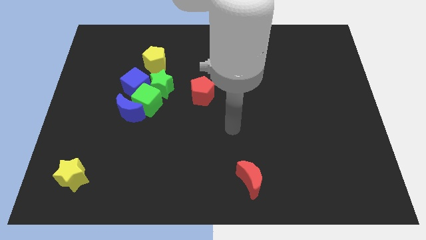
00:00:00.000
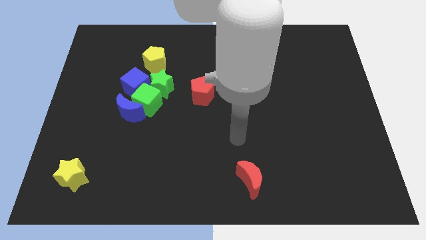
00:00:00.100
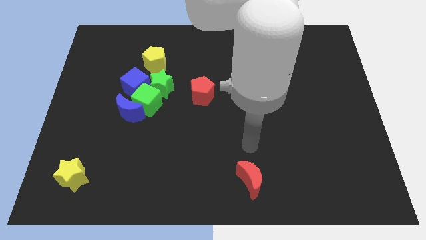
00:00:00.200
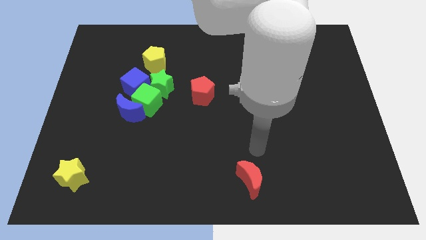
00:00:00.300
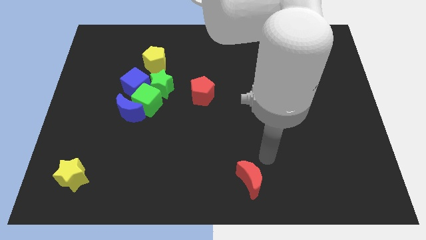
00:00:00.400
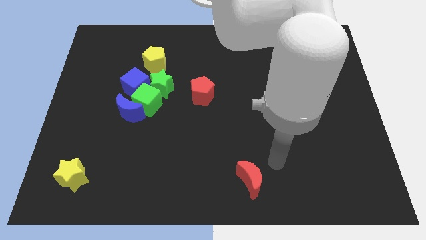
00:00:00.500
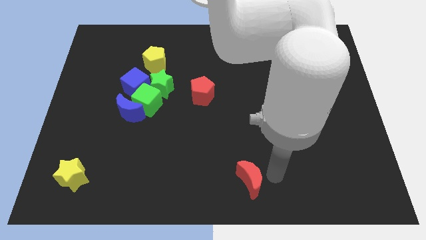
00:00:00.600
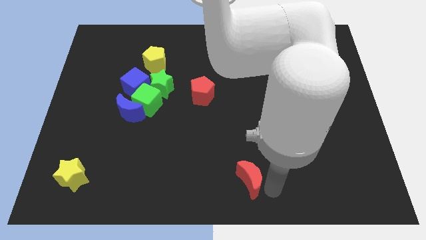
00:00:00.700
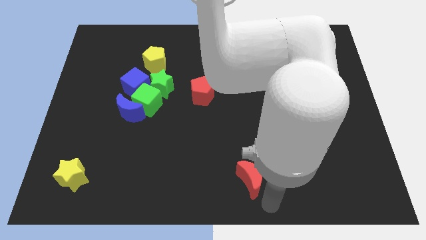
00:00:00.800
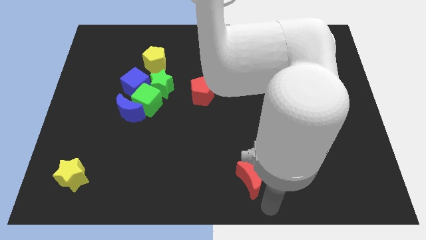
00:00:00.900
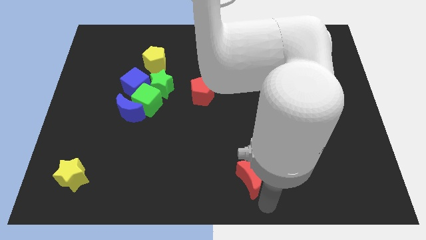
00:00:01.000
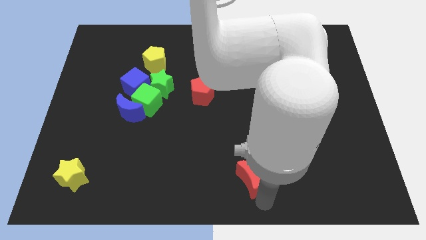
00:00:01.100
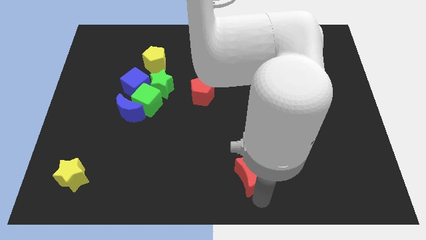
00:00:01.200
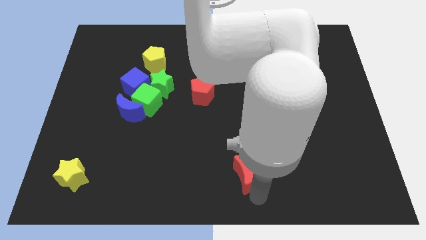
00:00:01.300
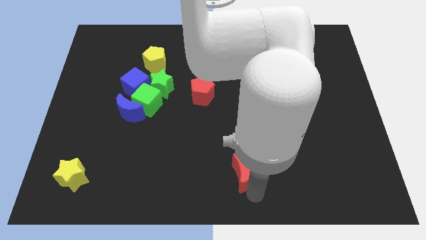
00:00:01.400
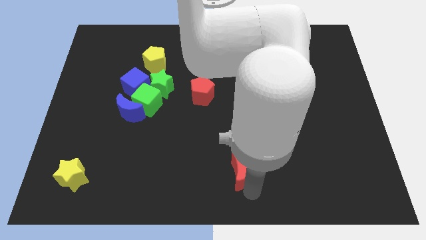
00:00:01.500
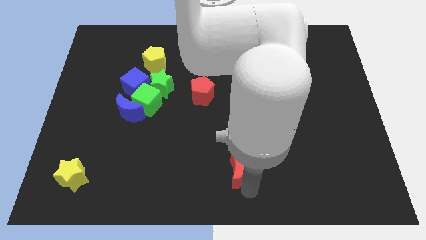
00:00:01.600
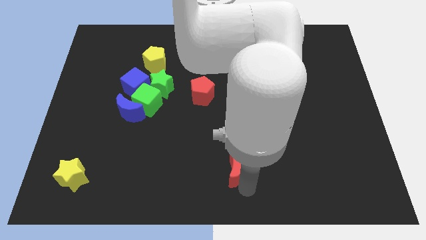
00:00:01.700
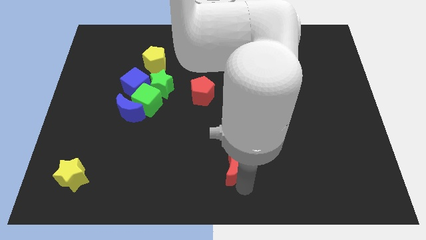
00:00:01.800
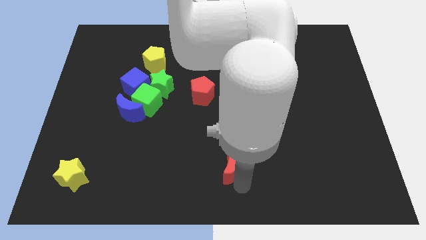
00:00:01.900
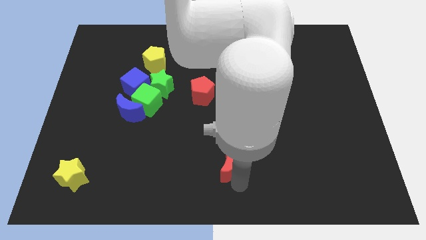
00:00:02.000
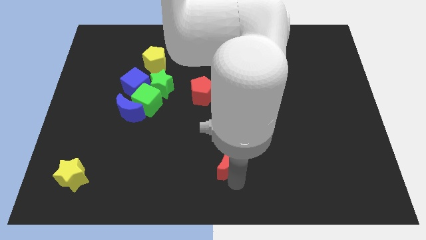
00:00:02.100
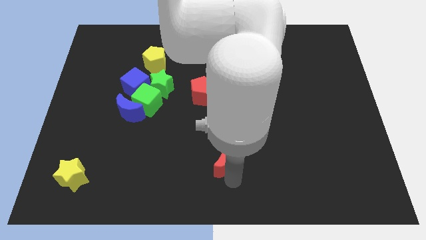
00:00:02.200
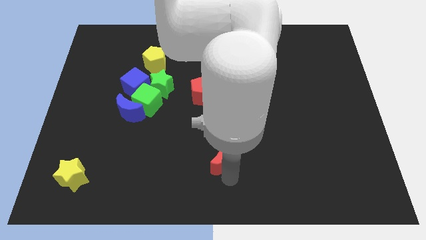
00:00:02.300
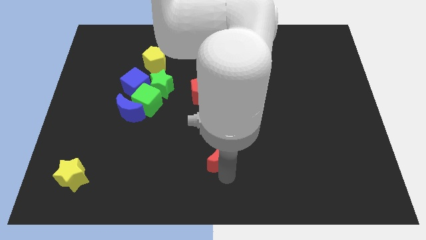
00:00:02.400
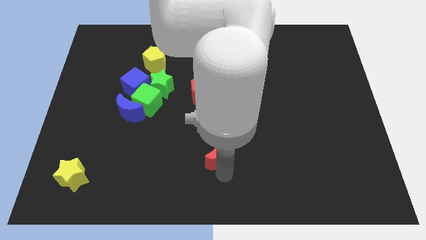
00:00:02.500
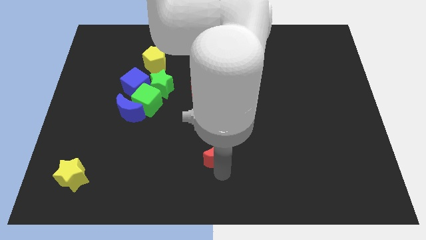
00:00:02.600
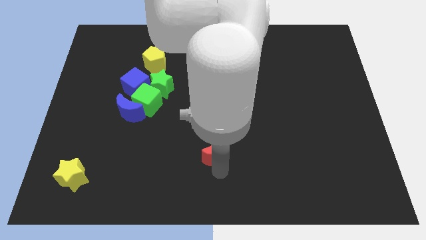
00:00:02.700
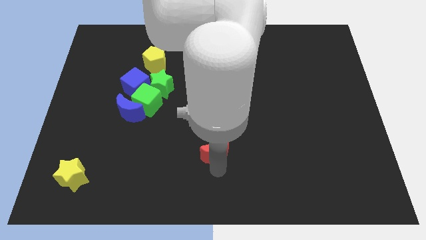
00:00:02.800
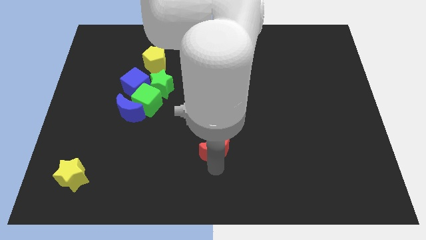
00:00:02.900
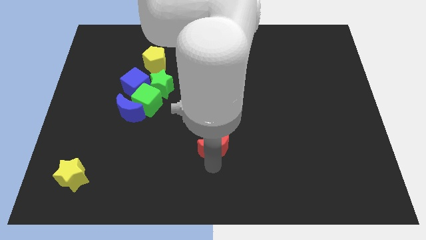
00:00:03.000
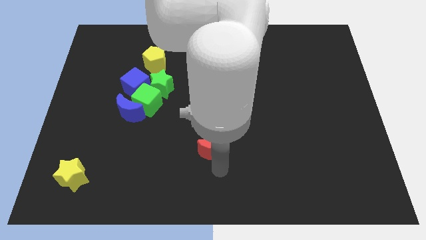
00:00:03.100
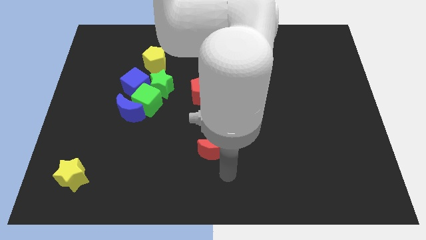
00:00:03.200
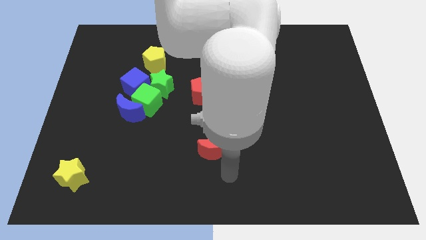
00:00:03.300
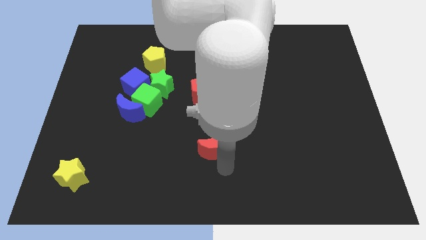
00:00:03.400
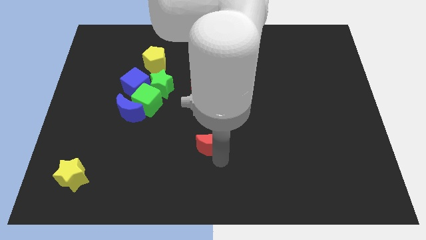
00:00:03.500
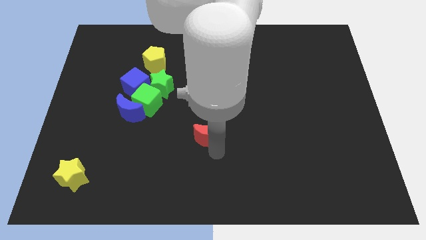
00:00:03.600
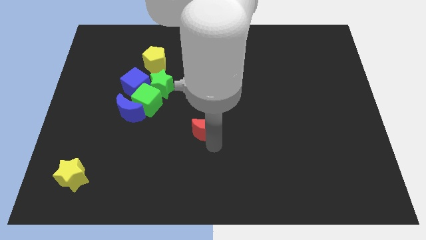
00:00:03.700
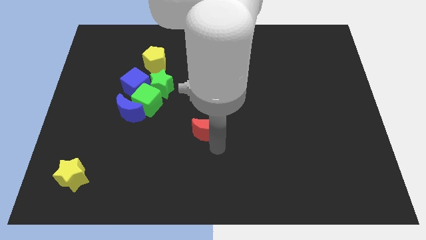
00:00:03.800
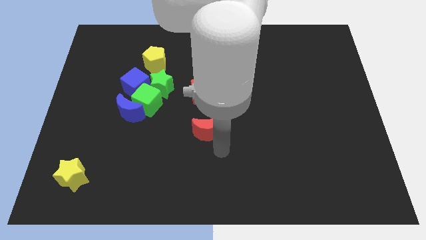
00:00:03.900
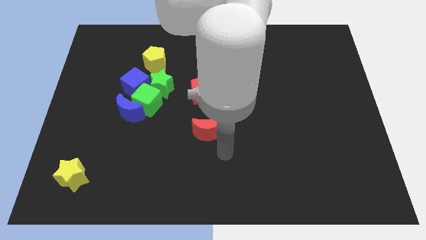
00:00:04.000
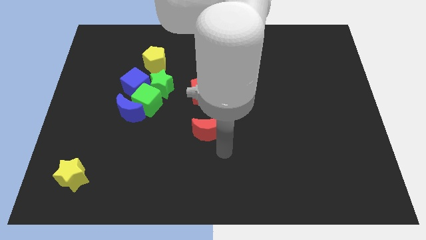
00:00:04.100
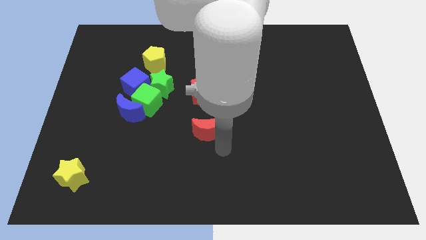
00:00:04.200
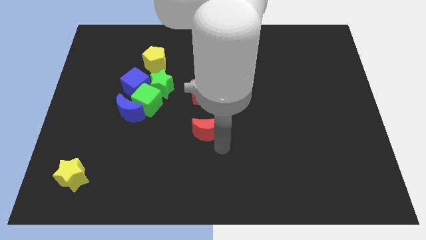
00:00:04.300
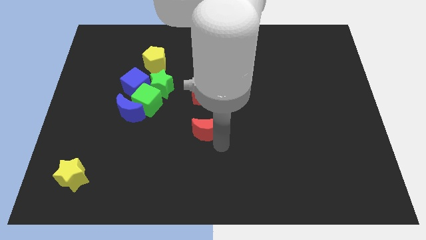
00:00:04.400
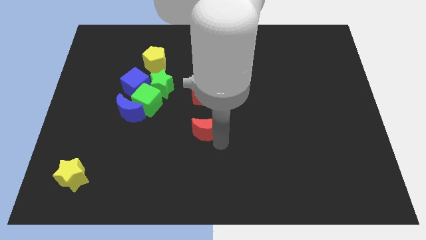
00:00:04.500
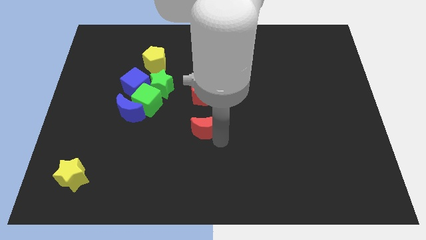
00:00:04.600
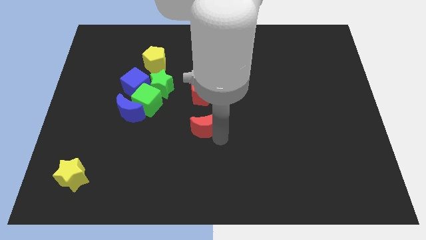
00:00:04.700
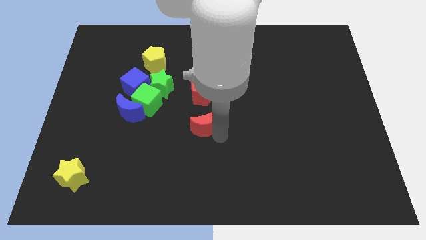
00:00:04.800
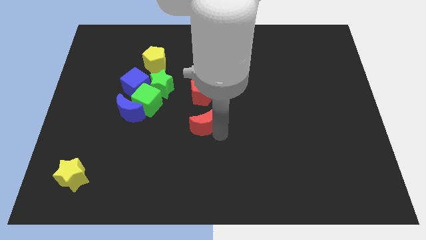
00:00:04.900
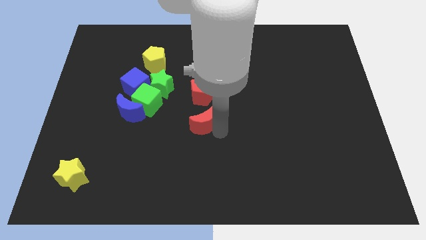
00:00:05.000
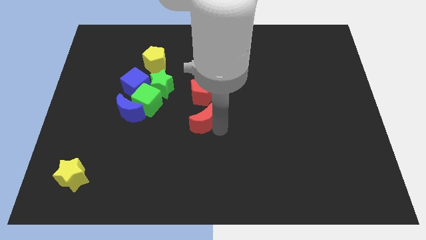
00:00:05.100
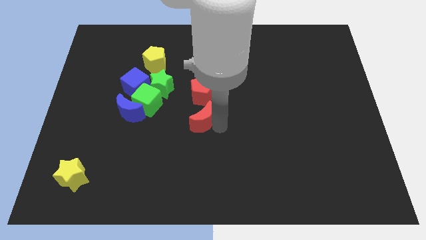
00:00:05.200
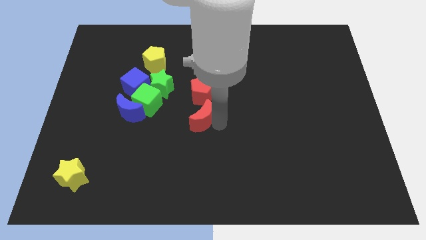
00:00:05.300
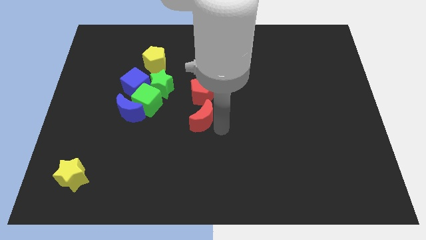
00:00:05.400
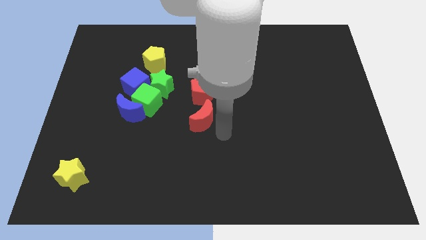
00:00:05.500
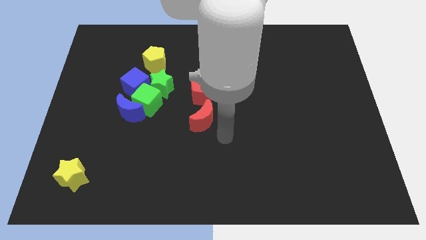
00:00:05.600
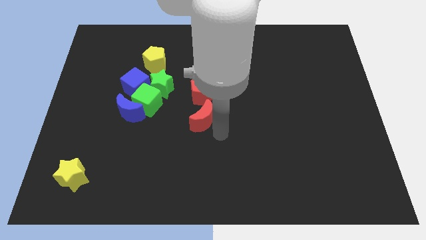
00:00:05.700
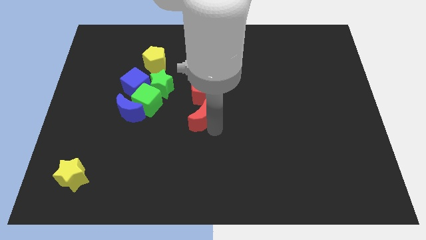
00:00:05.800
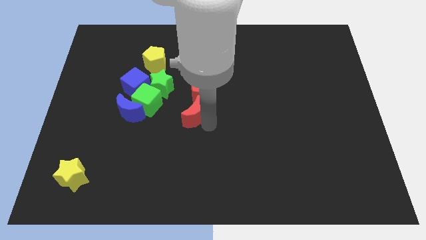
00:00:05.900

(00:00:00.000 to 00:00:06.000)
push the red moon to the bottom right side of the green star

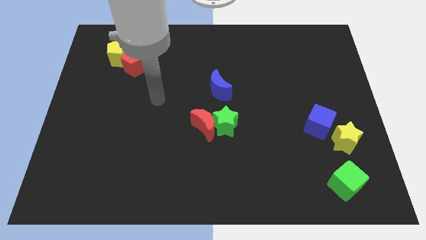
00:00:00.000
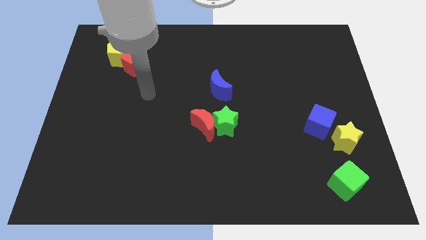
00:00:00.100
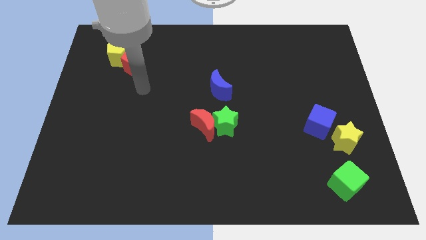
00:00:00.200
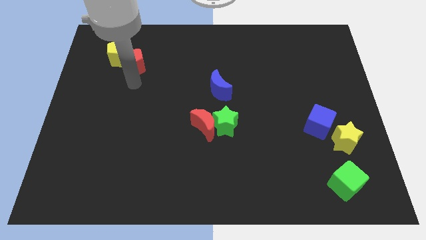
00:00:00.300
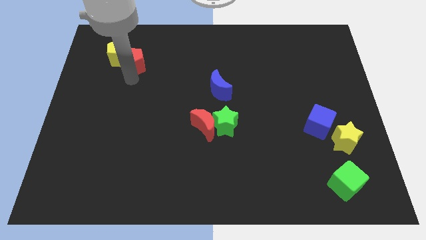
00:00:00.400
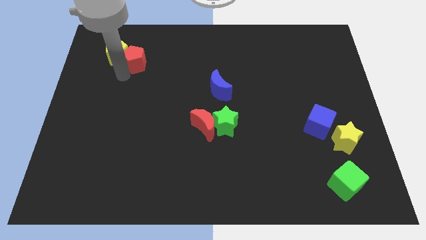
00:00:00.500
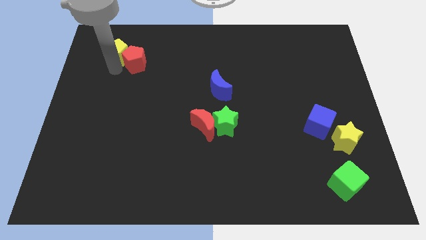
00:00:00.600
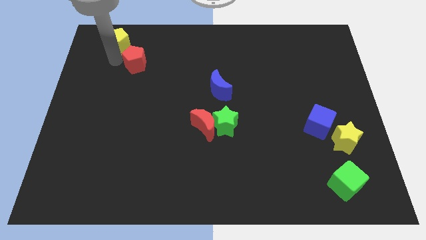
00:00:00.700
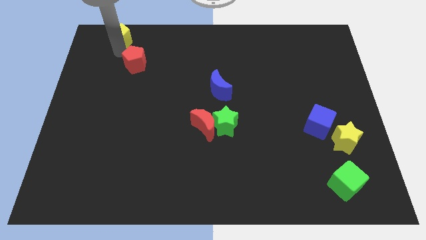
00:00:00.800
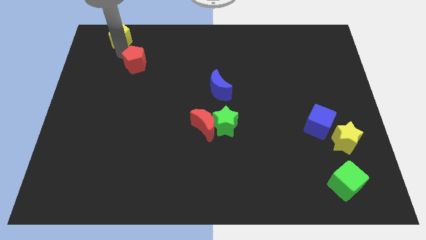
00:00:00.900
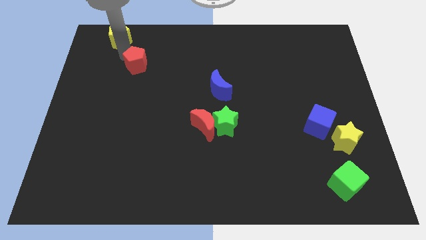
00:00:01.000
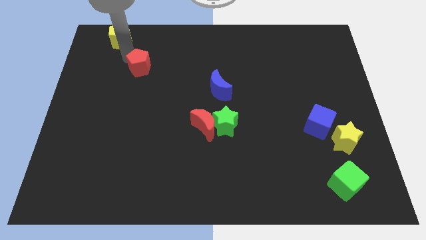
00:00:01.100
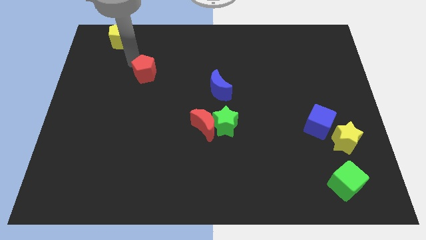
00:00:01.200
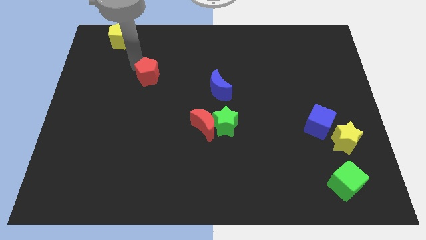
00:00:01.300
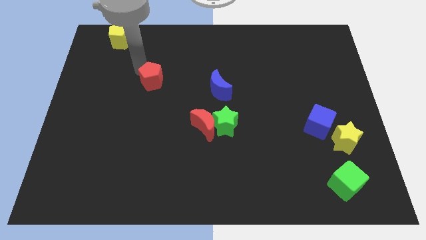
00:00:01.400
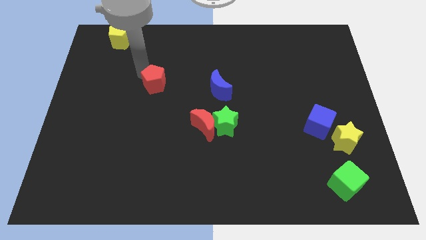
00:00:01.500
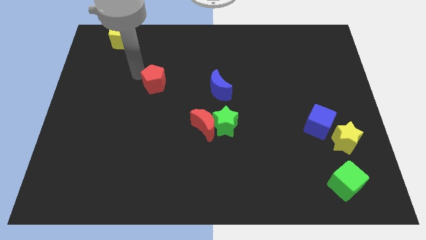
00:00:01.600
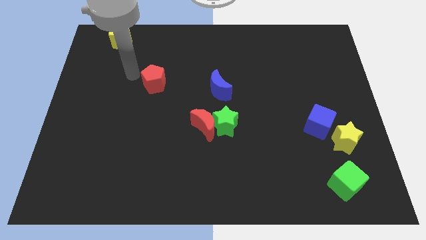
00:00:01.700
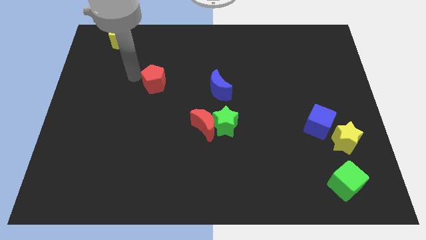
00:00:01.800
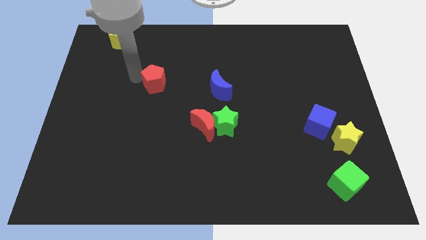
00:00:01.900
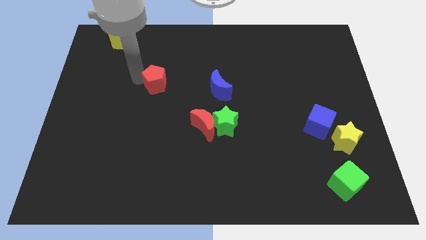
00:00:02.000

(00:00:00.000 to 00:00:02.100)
slide the red pentagon to the left of the blue moon
